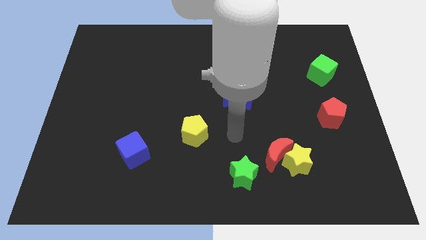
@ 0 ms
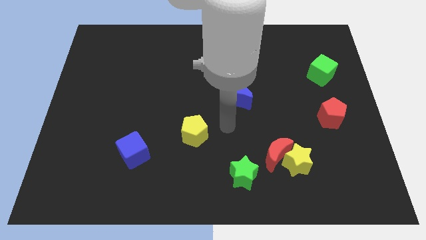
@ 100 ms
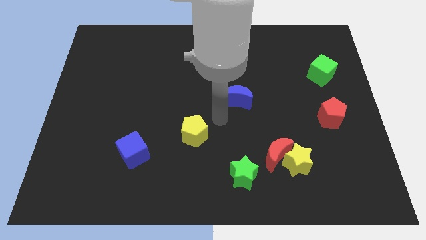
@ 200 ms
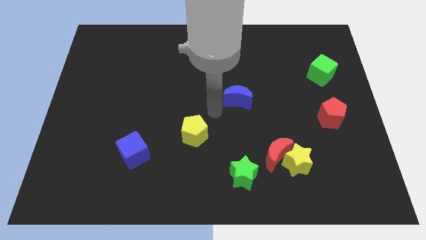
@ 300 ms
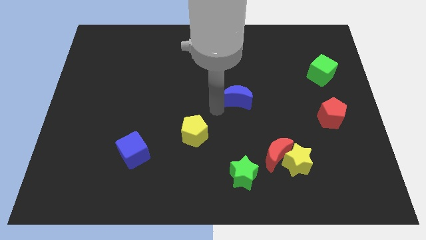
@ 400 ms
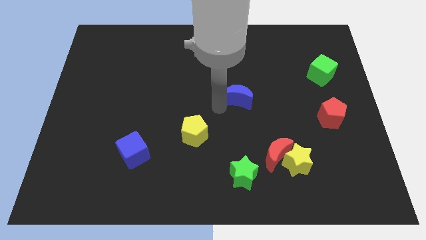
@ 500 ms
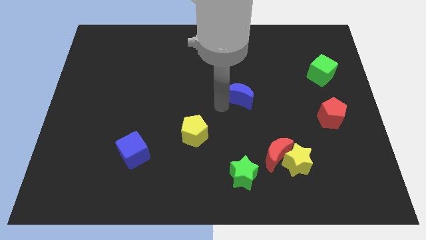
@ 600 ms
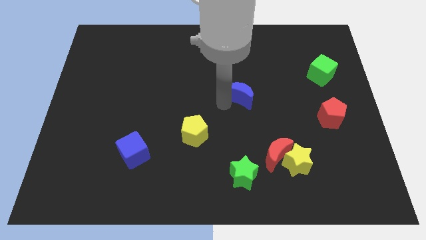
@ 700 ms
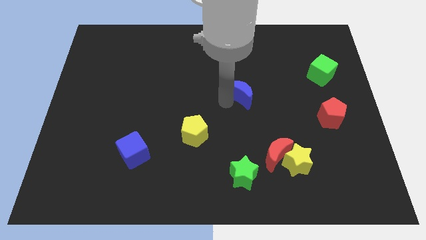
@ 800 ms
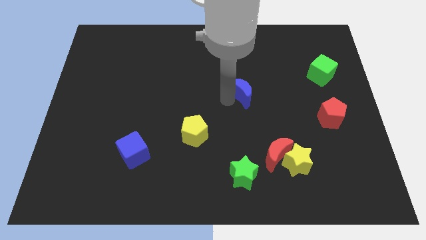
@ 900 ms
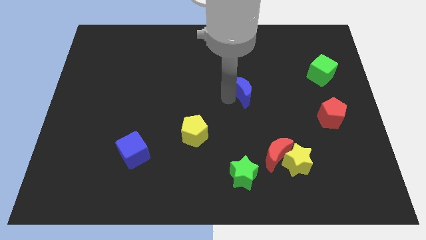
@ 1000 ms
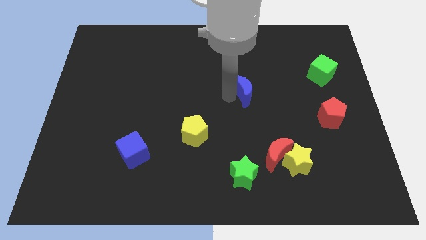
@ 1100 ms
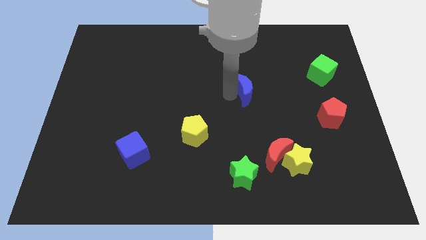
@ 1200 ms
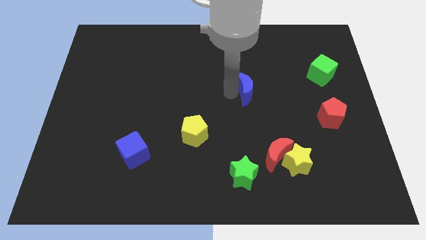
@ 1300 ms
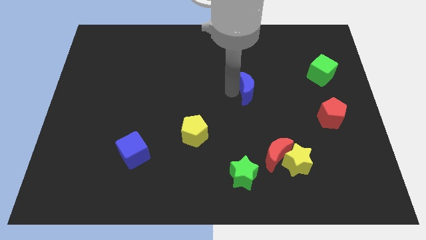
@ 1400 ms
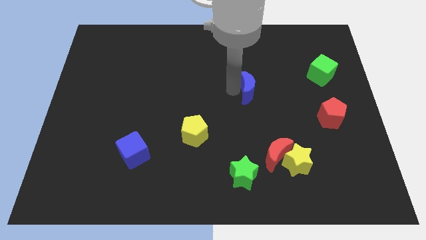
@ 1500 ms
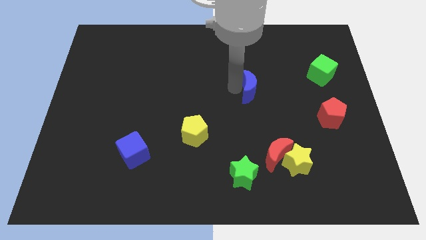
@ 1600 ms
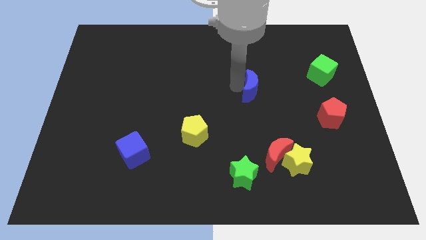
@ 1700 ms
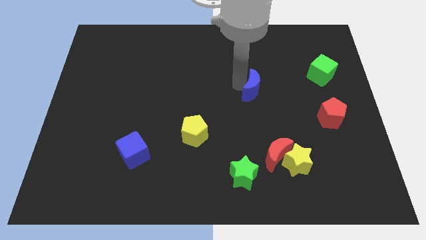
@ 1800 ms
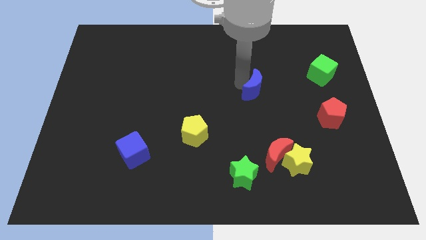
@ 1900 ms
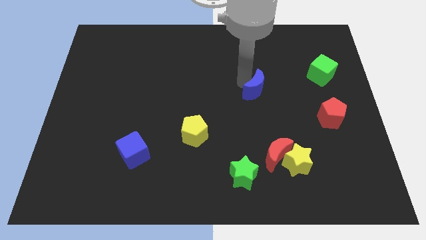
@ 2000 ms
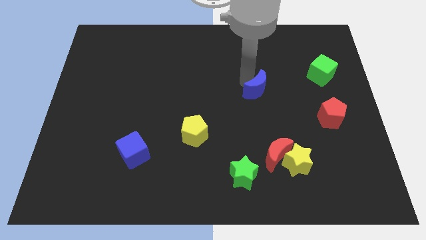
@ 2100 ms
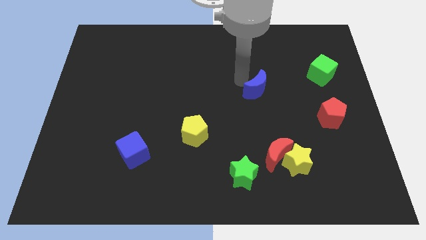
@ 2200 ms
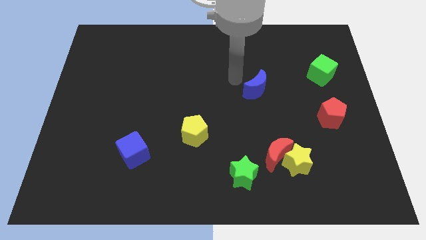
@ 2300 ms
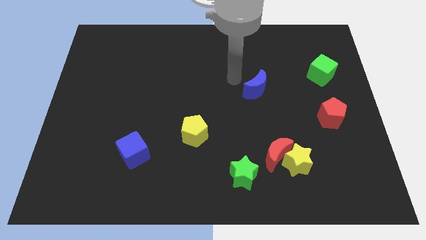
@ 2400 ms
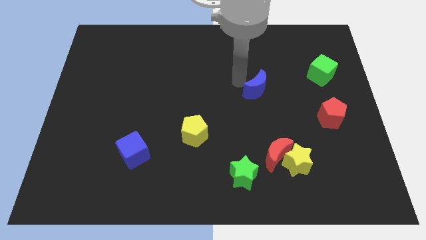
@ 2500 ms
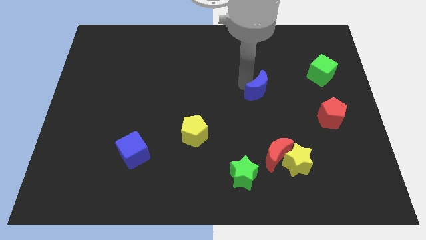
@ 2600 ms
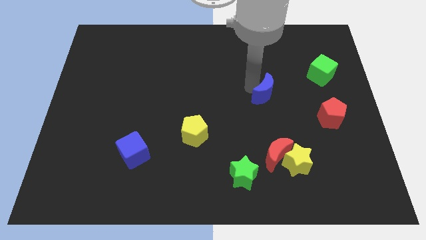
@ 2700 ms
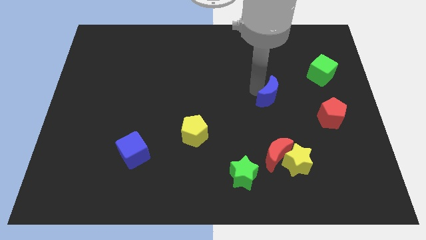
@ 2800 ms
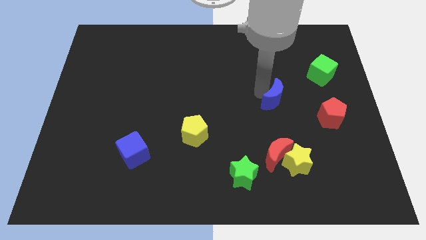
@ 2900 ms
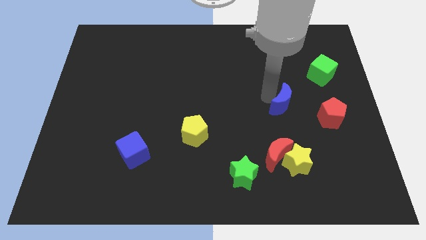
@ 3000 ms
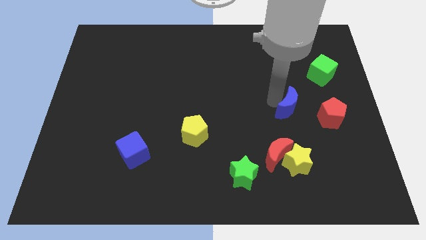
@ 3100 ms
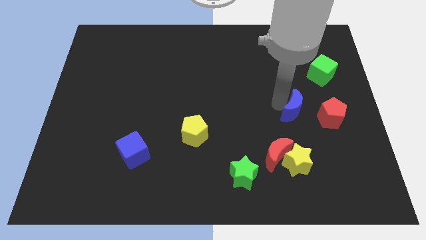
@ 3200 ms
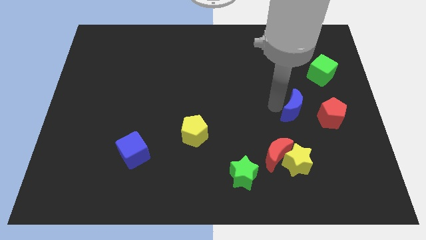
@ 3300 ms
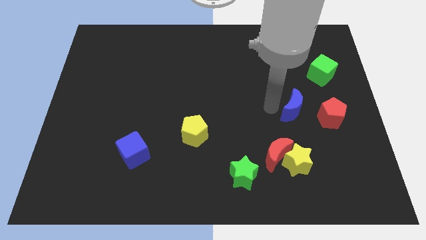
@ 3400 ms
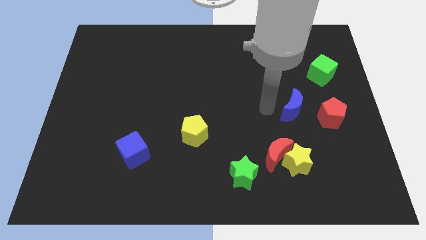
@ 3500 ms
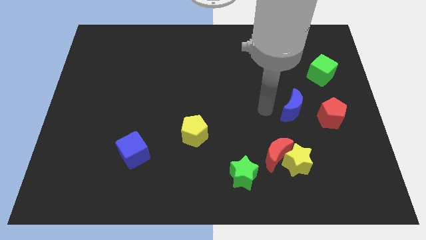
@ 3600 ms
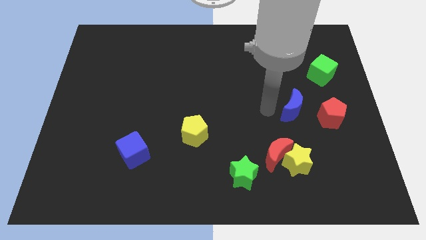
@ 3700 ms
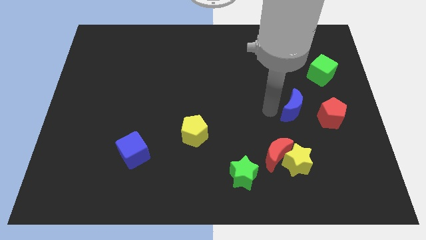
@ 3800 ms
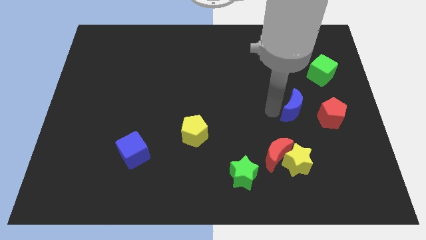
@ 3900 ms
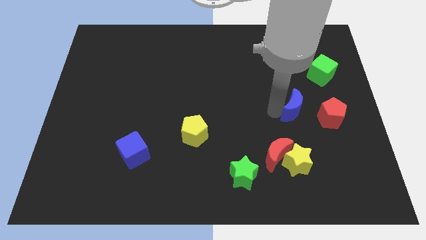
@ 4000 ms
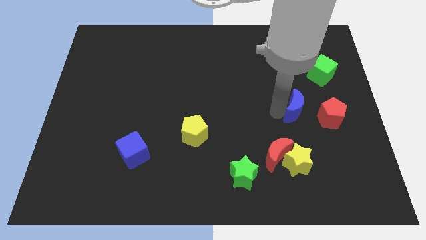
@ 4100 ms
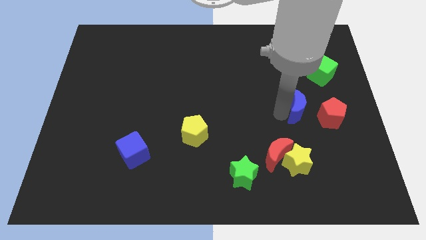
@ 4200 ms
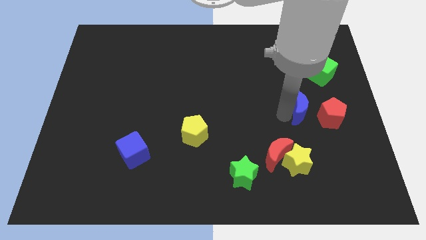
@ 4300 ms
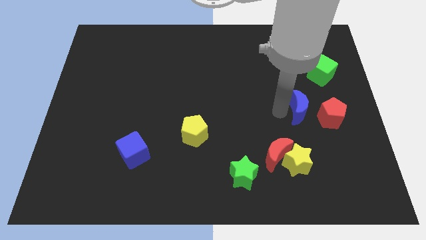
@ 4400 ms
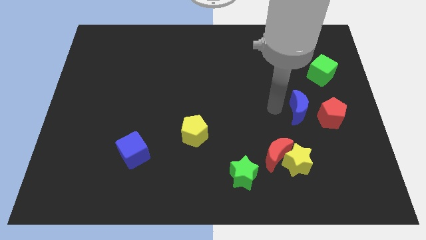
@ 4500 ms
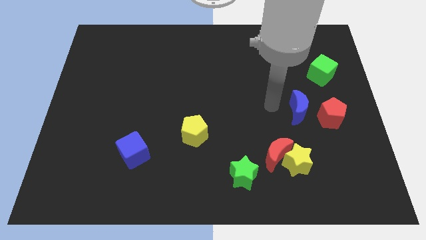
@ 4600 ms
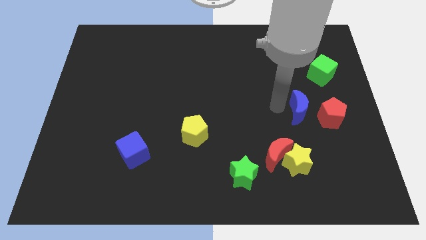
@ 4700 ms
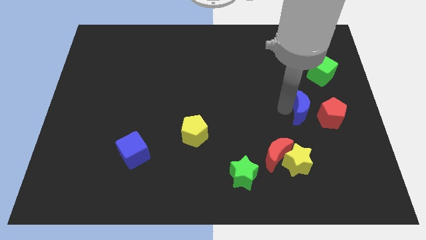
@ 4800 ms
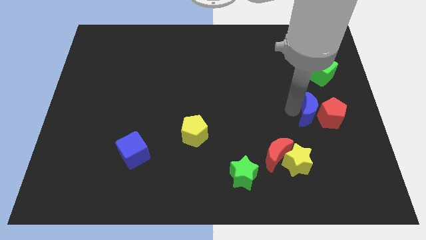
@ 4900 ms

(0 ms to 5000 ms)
put the blue moon close to the red pentagon

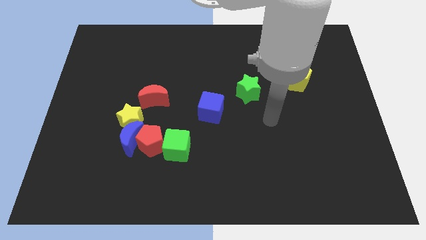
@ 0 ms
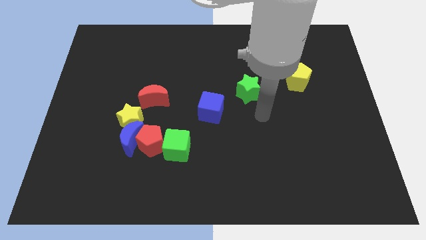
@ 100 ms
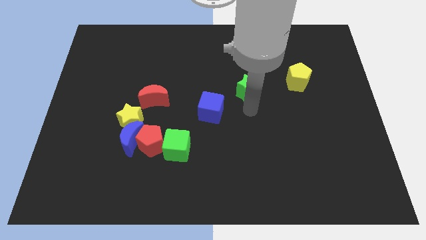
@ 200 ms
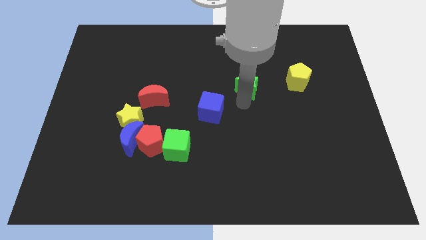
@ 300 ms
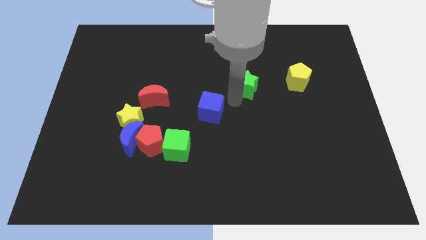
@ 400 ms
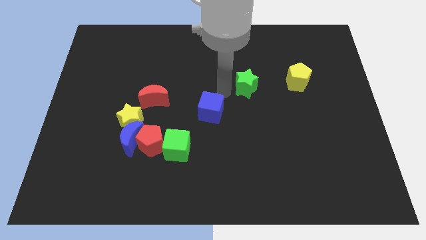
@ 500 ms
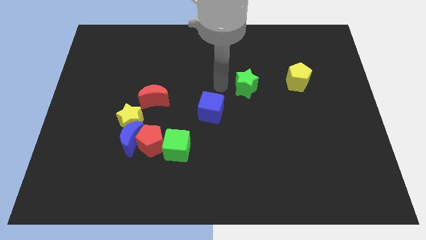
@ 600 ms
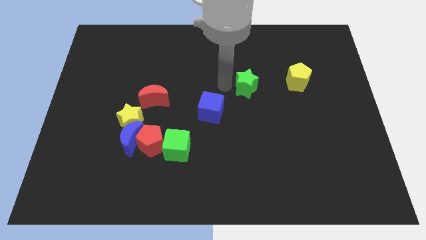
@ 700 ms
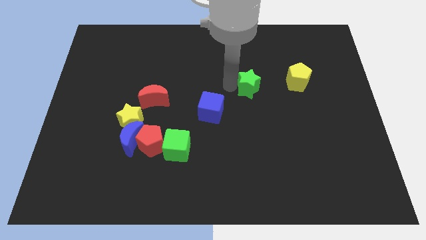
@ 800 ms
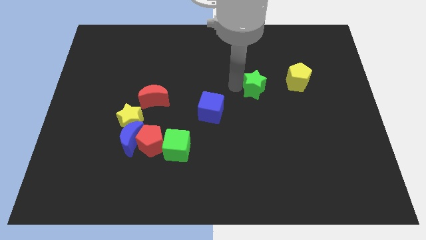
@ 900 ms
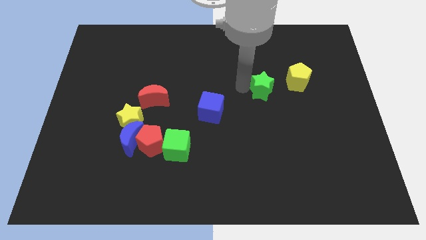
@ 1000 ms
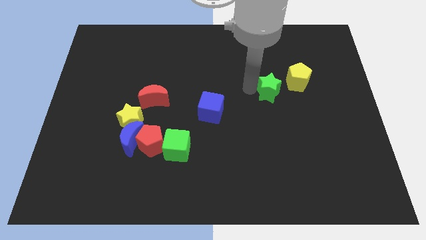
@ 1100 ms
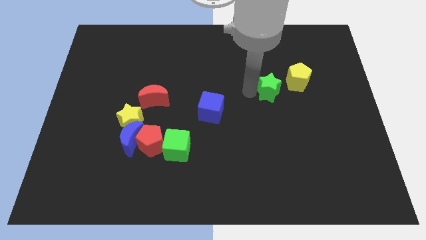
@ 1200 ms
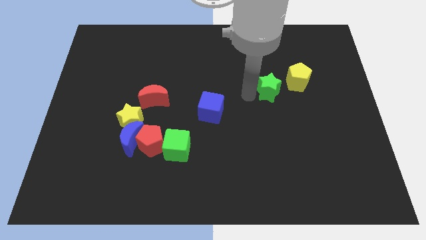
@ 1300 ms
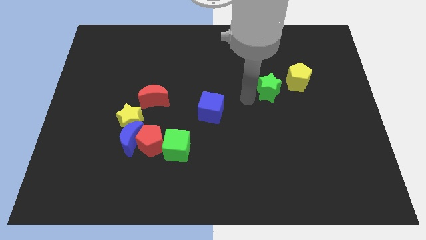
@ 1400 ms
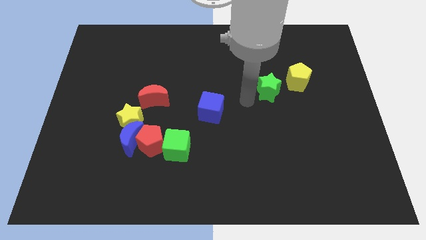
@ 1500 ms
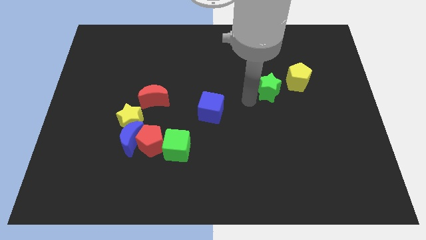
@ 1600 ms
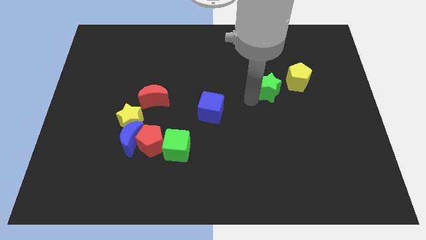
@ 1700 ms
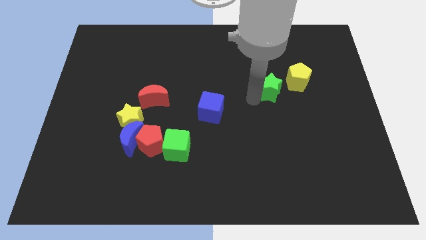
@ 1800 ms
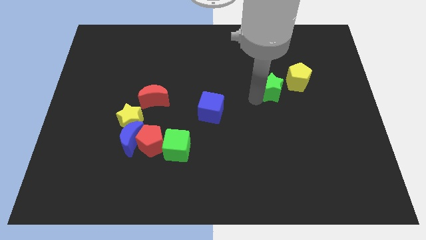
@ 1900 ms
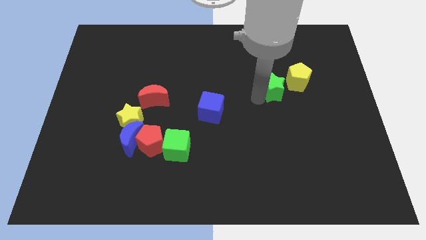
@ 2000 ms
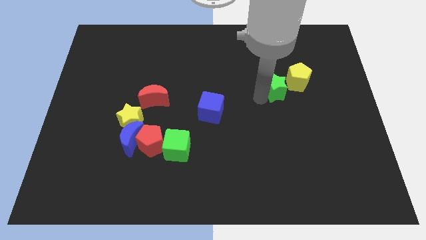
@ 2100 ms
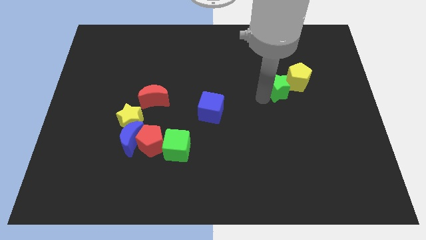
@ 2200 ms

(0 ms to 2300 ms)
move the green star next to the yellow pentagon

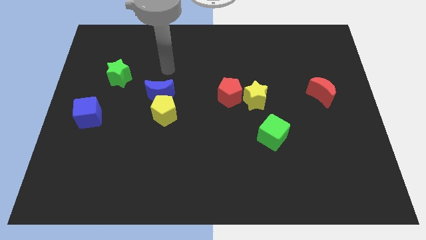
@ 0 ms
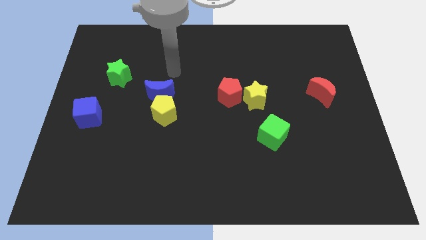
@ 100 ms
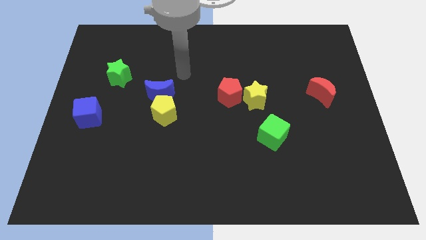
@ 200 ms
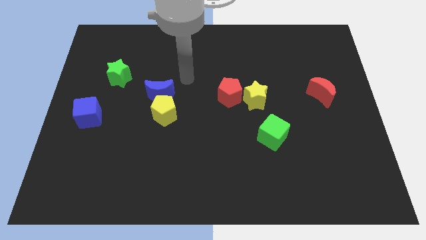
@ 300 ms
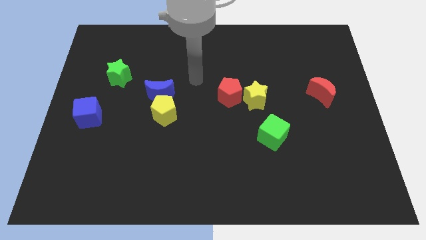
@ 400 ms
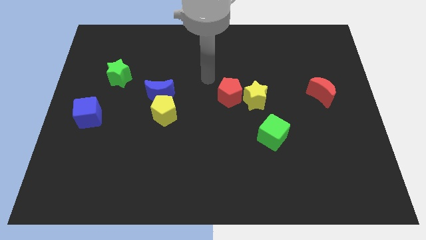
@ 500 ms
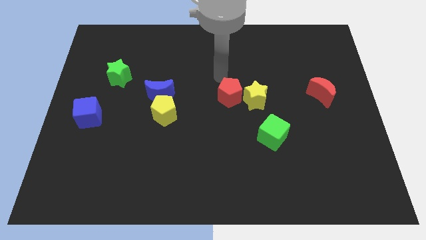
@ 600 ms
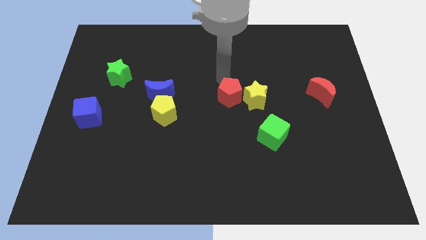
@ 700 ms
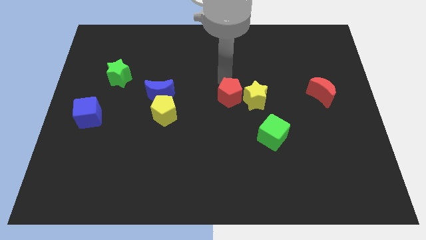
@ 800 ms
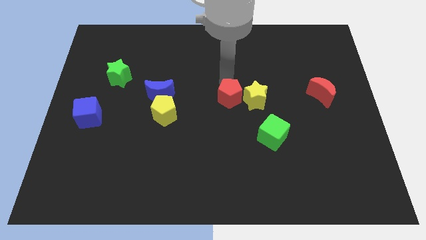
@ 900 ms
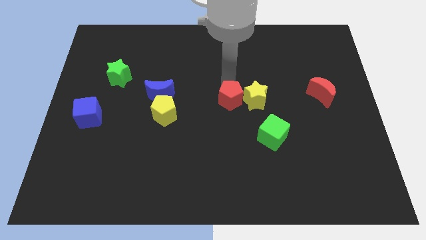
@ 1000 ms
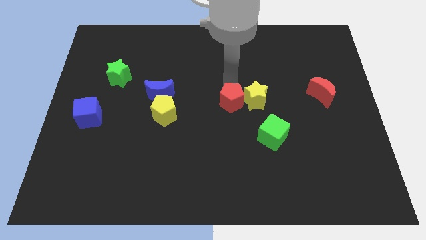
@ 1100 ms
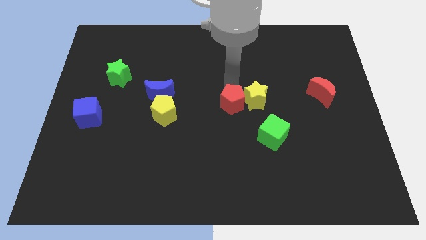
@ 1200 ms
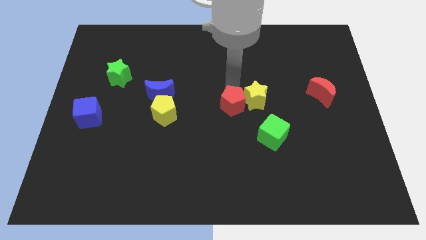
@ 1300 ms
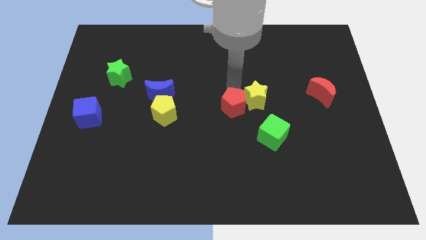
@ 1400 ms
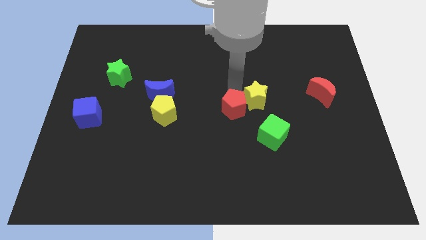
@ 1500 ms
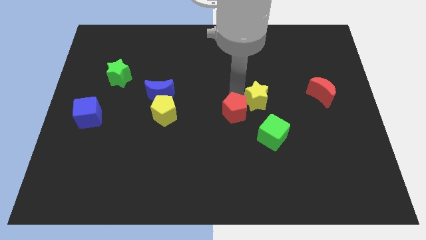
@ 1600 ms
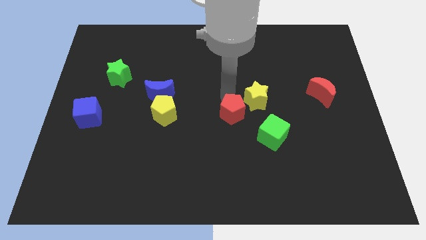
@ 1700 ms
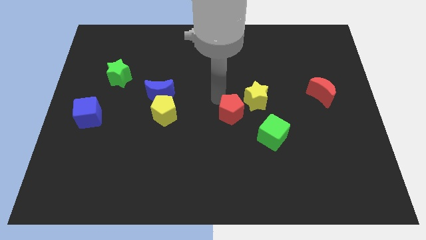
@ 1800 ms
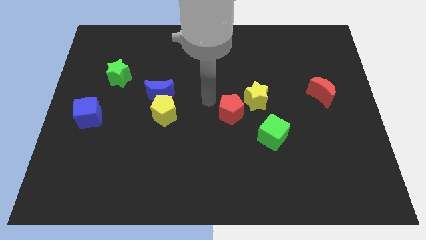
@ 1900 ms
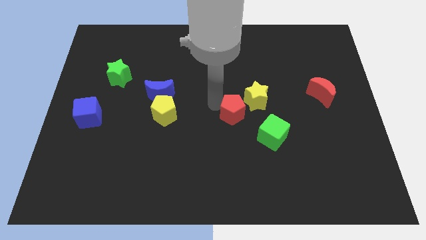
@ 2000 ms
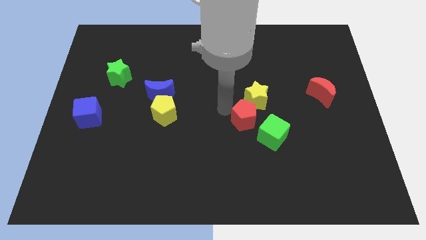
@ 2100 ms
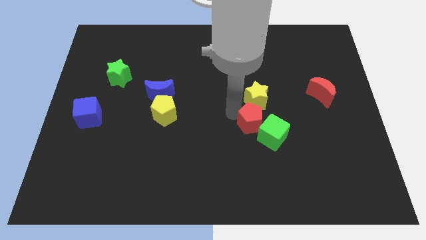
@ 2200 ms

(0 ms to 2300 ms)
push the red pentagon close to the green cube
